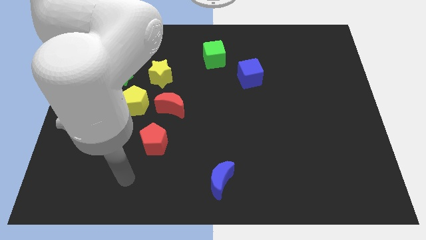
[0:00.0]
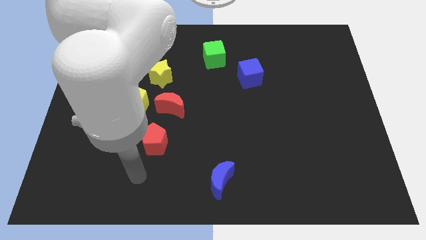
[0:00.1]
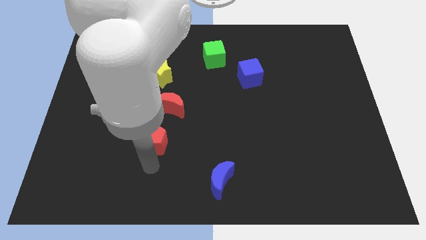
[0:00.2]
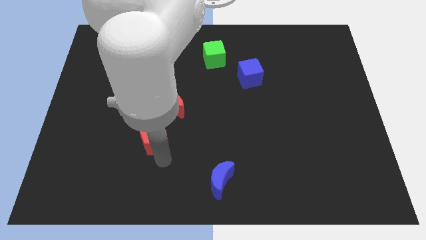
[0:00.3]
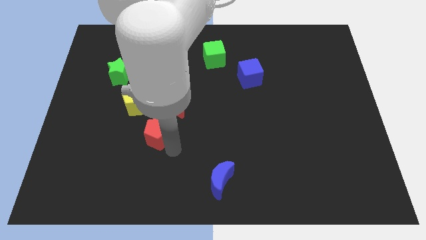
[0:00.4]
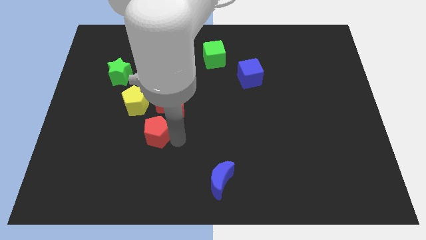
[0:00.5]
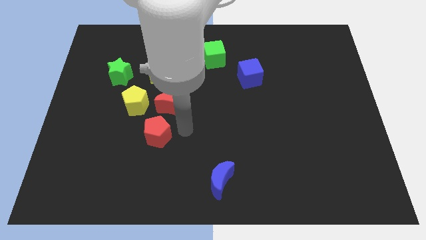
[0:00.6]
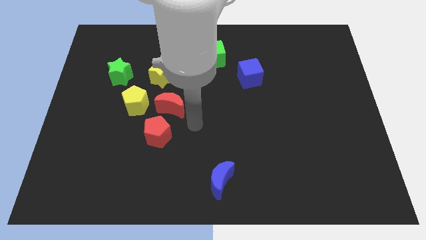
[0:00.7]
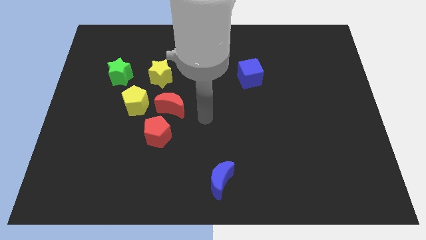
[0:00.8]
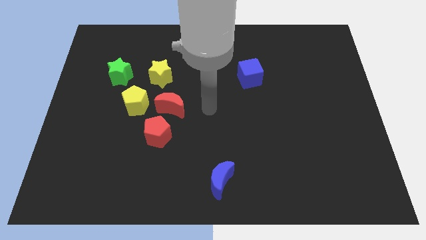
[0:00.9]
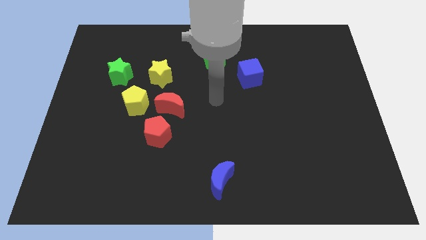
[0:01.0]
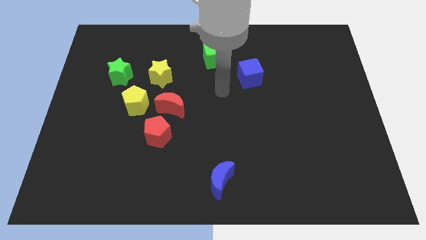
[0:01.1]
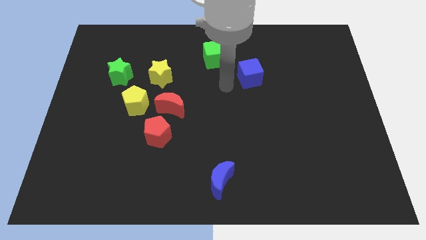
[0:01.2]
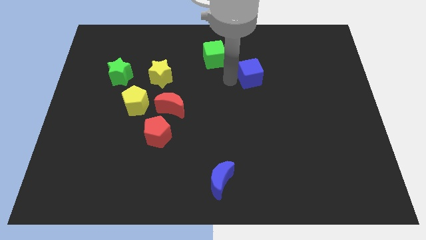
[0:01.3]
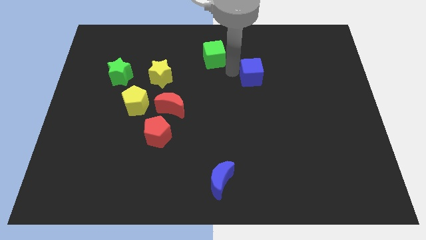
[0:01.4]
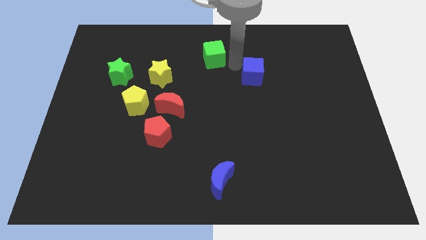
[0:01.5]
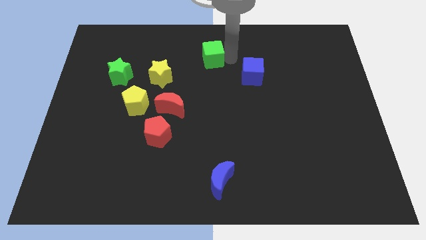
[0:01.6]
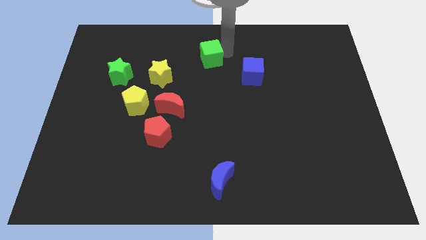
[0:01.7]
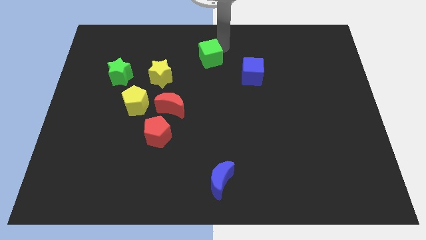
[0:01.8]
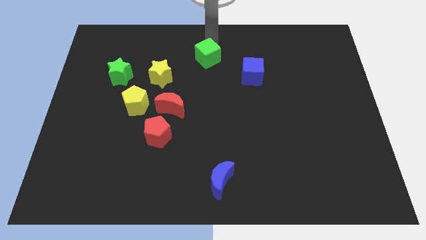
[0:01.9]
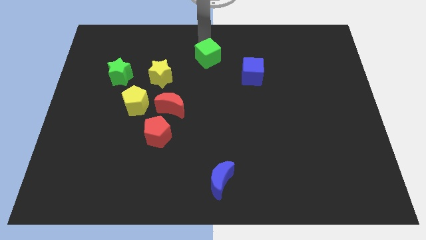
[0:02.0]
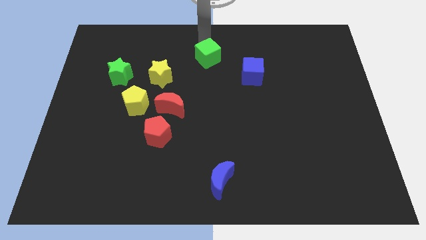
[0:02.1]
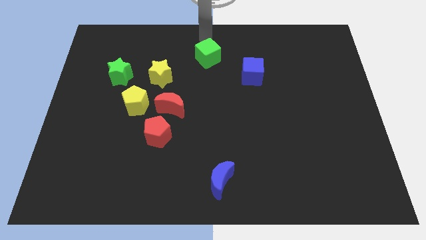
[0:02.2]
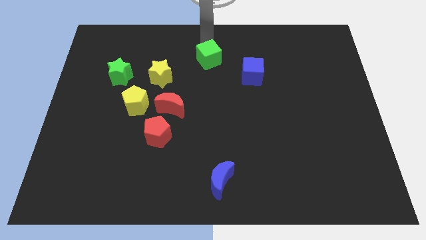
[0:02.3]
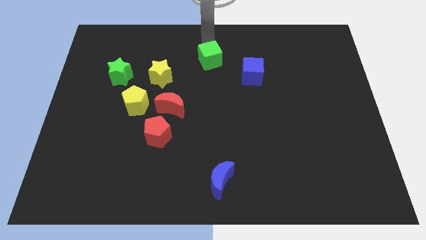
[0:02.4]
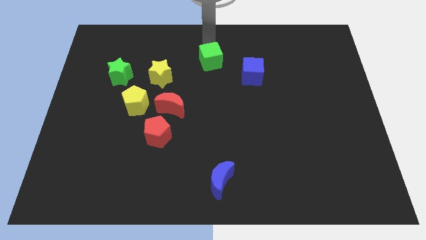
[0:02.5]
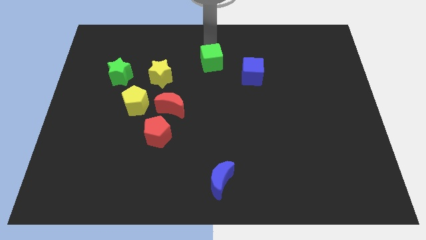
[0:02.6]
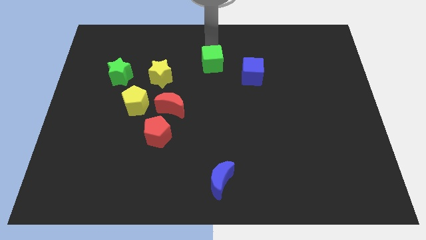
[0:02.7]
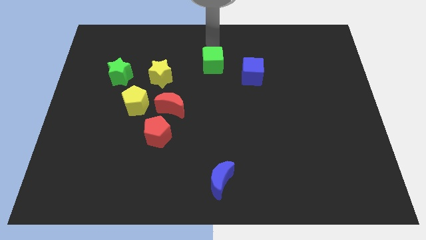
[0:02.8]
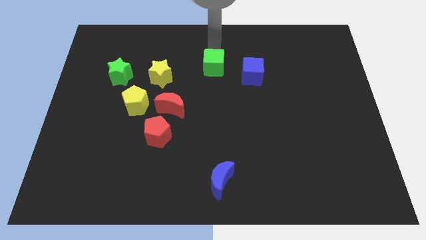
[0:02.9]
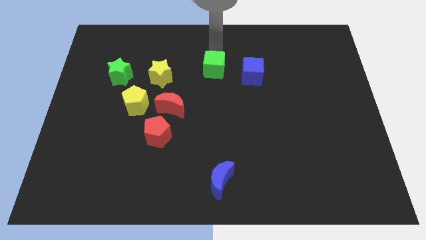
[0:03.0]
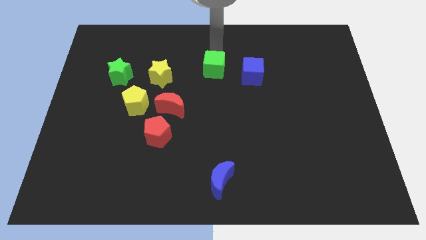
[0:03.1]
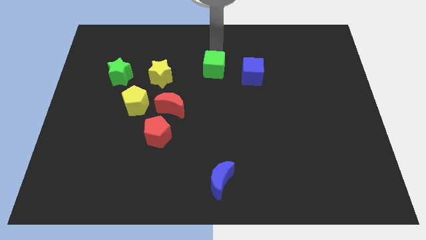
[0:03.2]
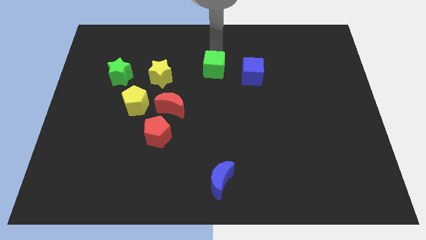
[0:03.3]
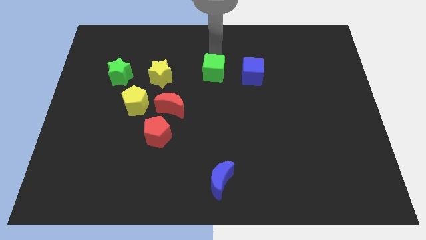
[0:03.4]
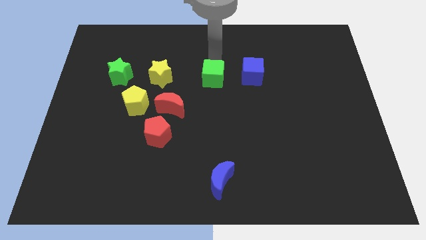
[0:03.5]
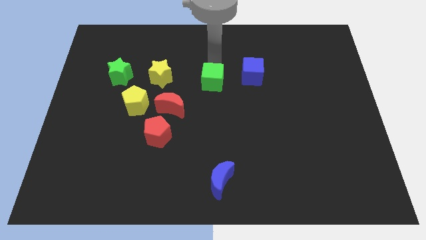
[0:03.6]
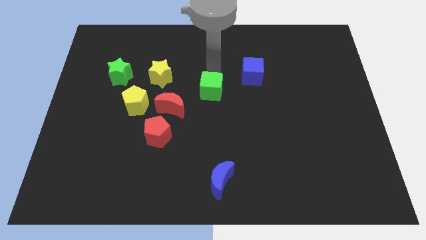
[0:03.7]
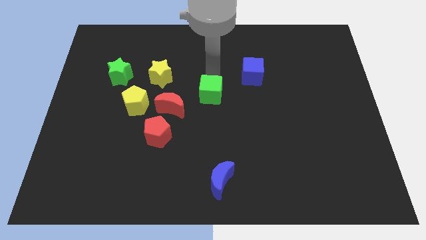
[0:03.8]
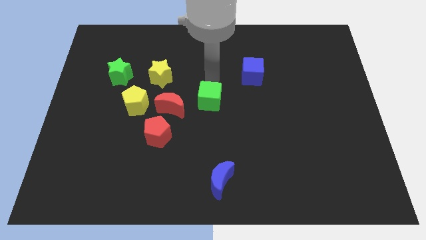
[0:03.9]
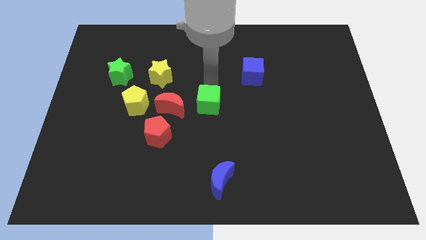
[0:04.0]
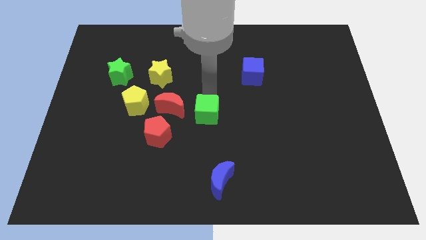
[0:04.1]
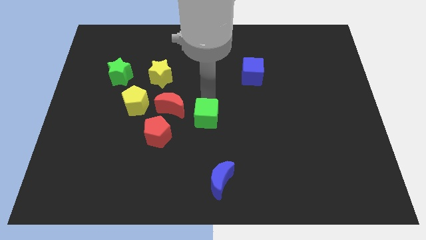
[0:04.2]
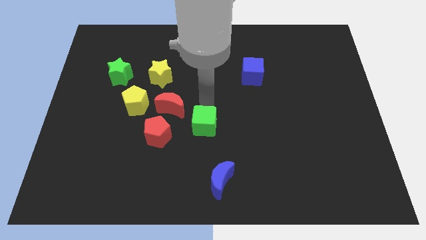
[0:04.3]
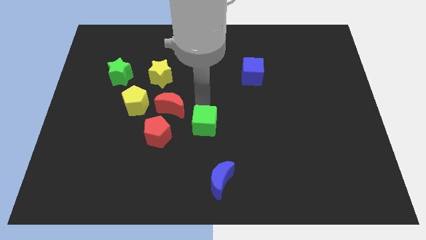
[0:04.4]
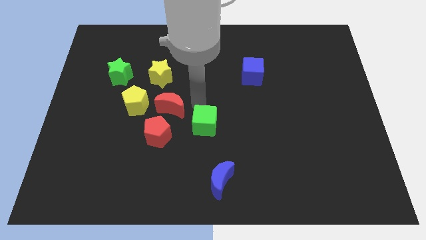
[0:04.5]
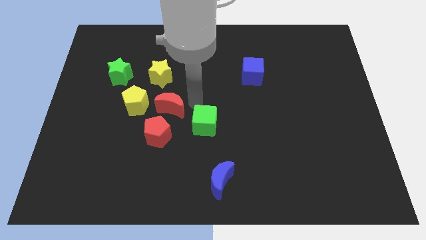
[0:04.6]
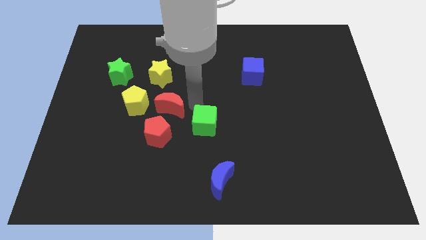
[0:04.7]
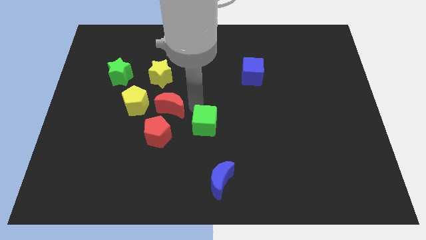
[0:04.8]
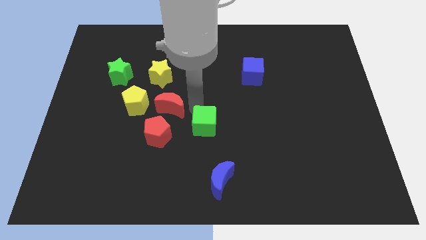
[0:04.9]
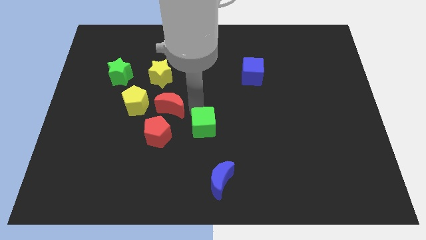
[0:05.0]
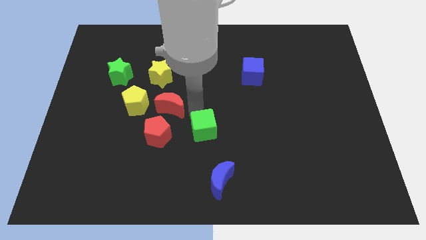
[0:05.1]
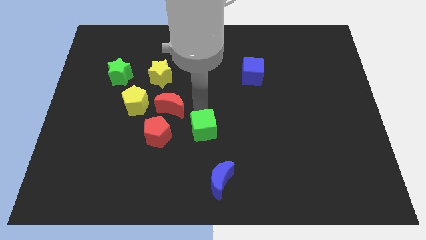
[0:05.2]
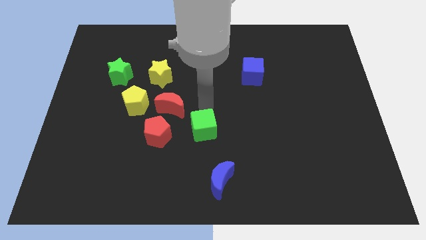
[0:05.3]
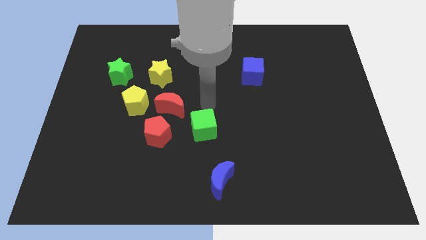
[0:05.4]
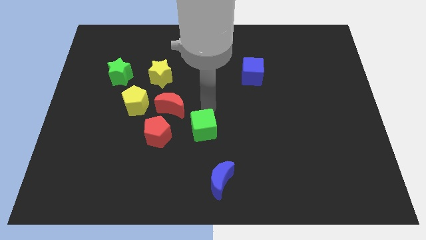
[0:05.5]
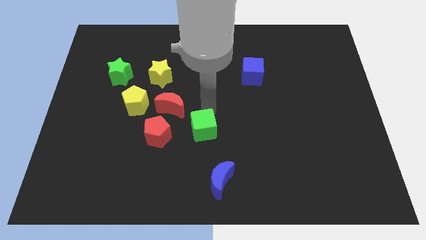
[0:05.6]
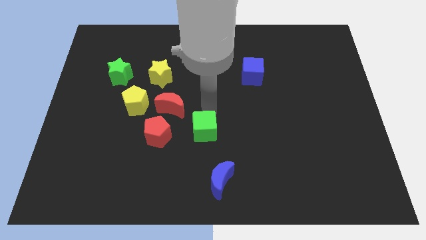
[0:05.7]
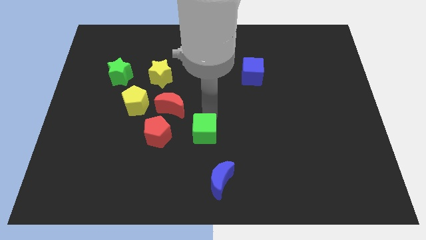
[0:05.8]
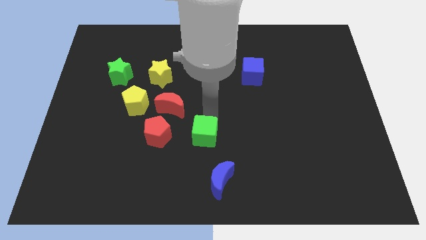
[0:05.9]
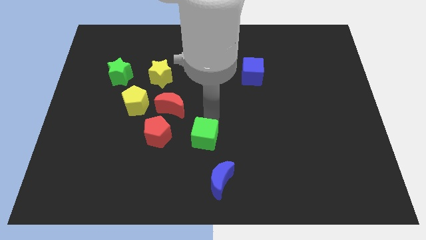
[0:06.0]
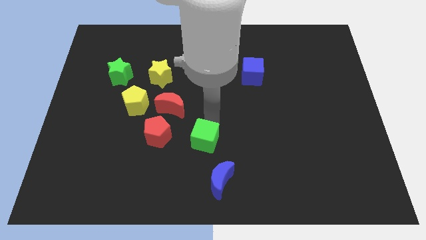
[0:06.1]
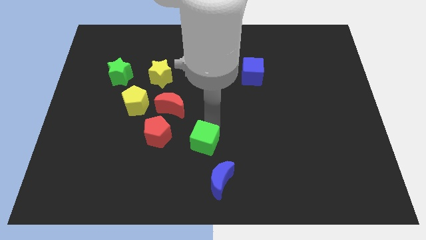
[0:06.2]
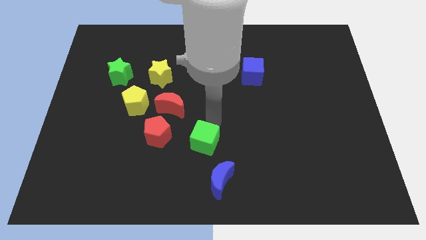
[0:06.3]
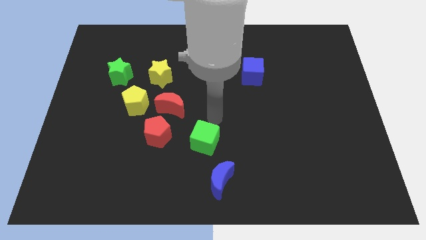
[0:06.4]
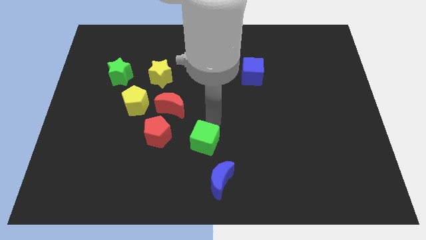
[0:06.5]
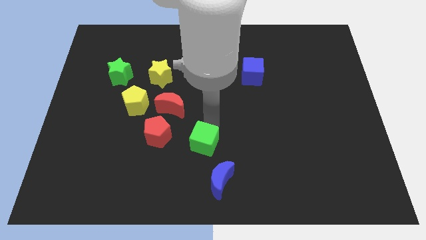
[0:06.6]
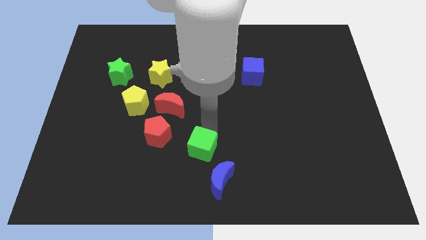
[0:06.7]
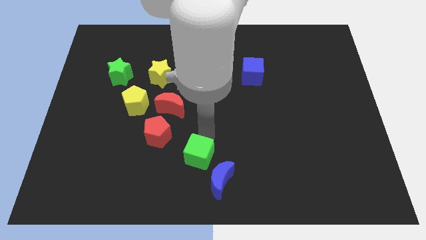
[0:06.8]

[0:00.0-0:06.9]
move the green cube to the bottom side
